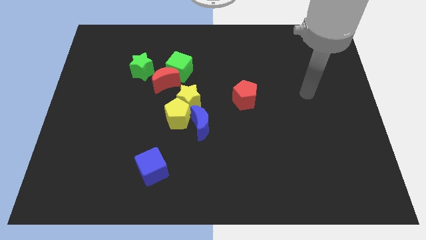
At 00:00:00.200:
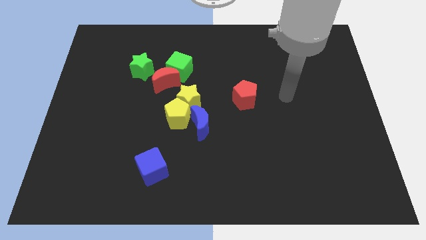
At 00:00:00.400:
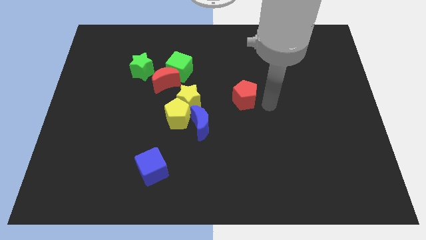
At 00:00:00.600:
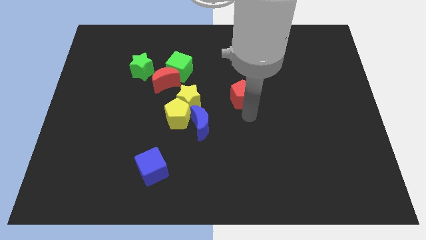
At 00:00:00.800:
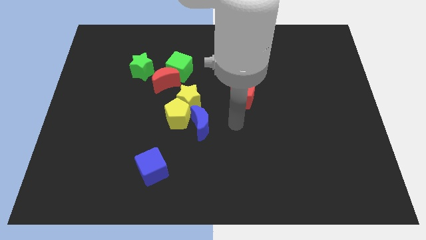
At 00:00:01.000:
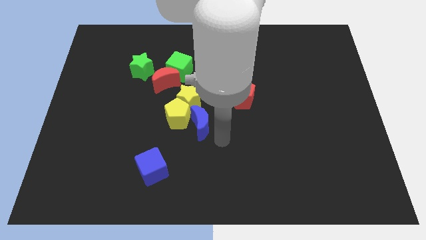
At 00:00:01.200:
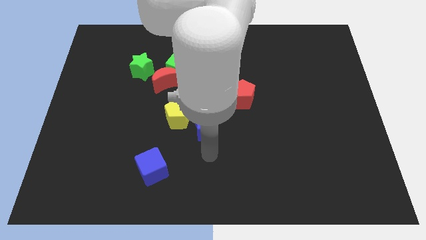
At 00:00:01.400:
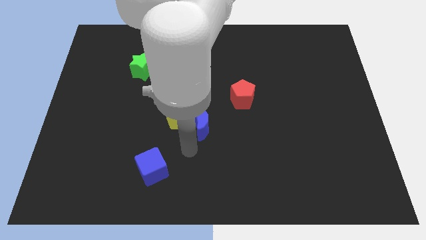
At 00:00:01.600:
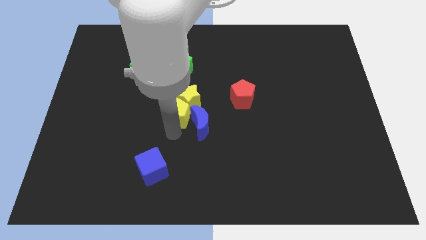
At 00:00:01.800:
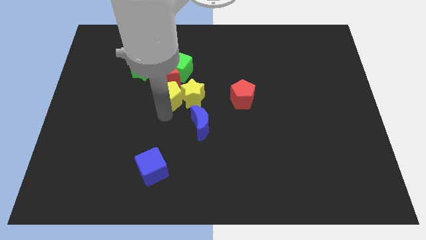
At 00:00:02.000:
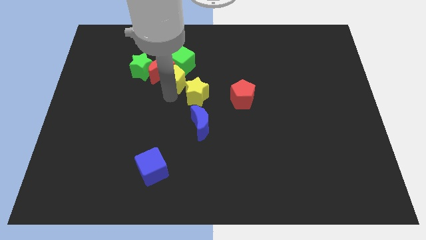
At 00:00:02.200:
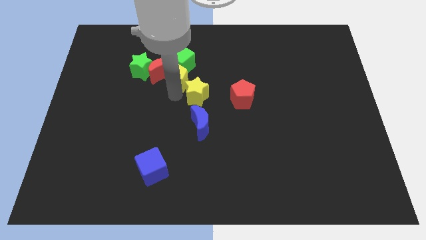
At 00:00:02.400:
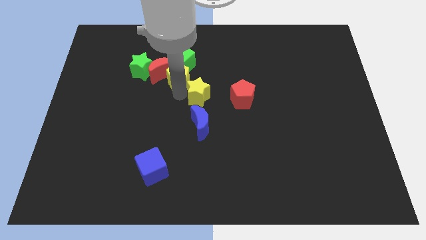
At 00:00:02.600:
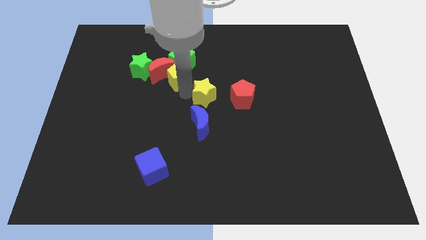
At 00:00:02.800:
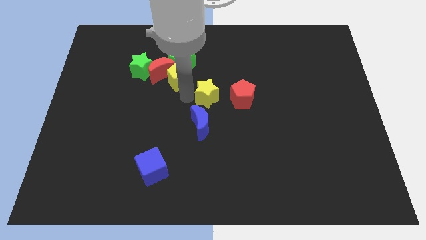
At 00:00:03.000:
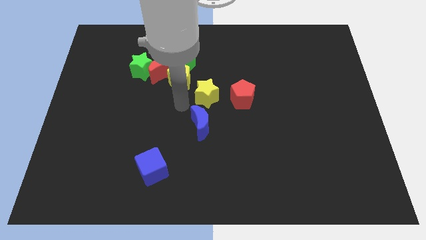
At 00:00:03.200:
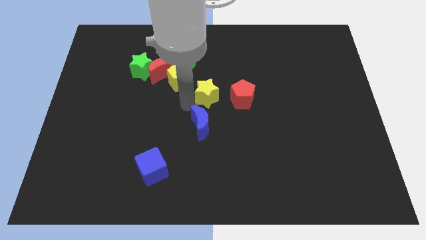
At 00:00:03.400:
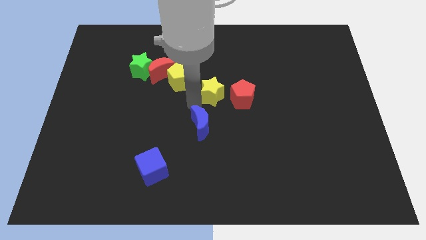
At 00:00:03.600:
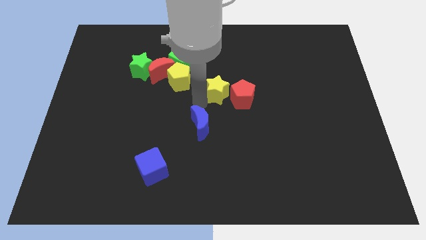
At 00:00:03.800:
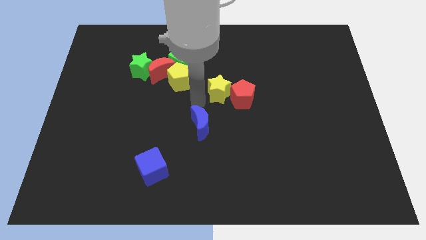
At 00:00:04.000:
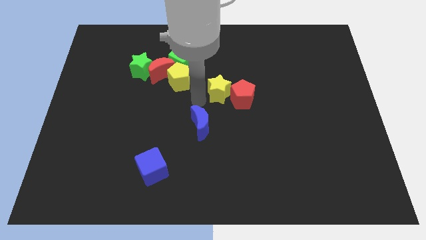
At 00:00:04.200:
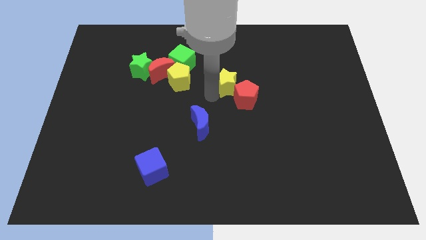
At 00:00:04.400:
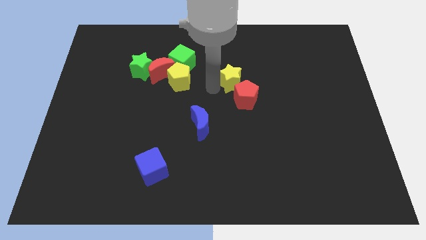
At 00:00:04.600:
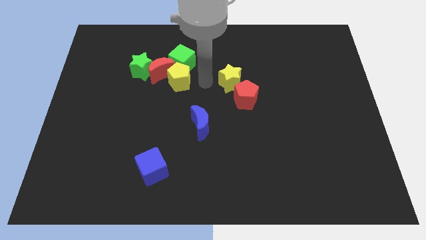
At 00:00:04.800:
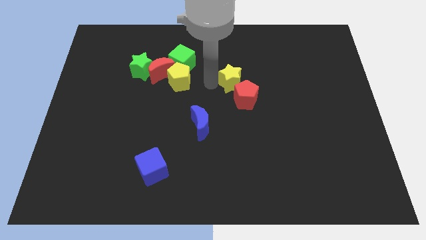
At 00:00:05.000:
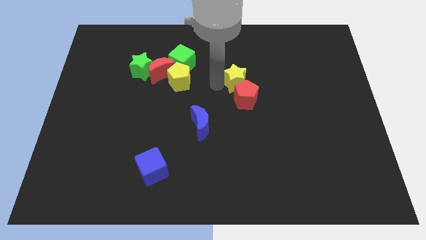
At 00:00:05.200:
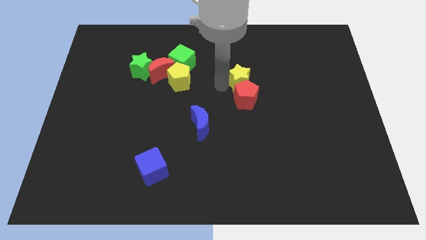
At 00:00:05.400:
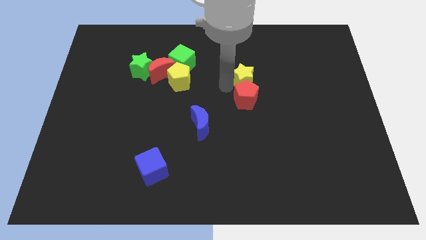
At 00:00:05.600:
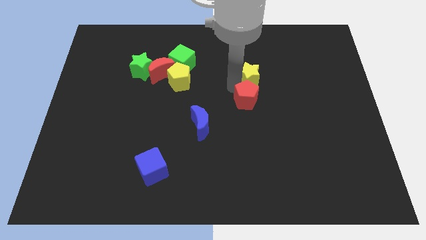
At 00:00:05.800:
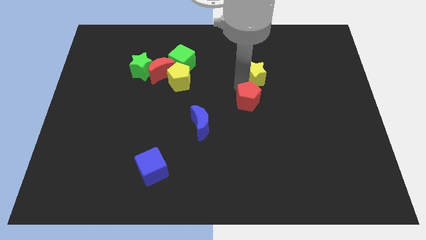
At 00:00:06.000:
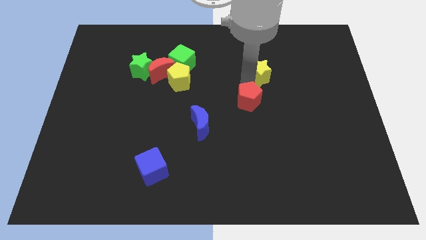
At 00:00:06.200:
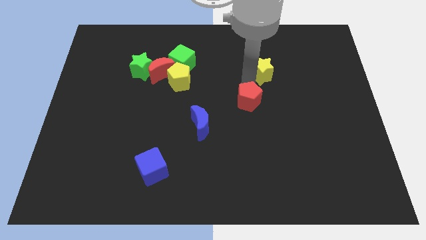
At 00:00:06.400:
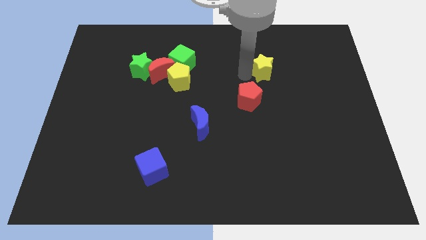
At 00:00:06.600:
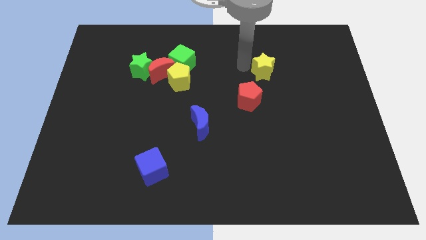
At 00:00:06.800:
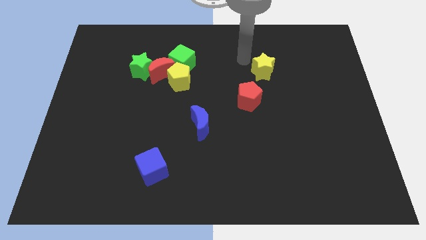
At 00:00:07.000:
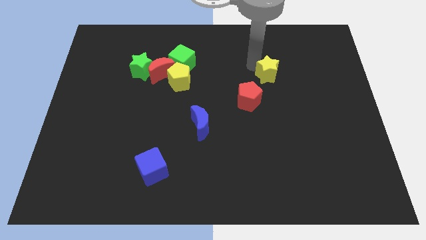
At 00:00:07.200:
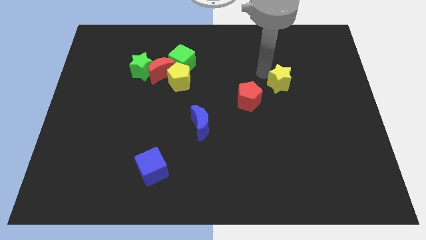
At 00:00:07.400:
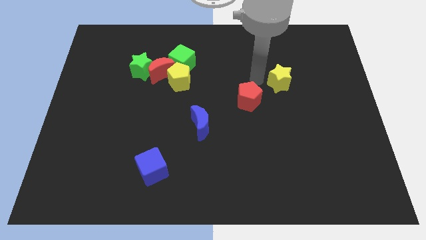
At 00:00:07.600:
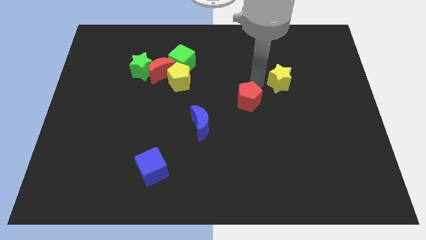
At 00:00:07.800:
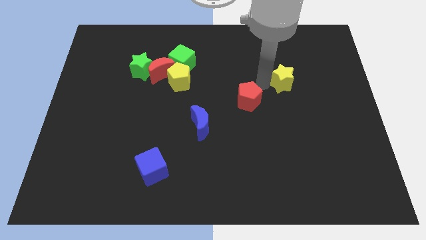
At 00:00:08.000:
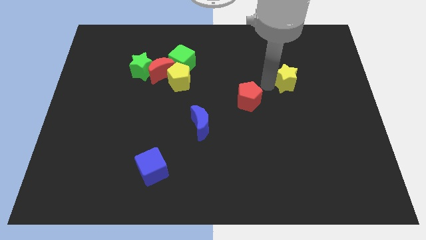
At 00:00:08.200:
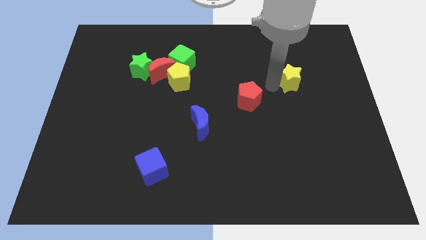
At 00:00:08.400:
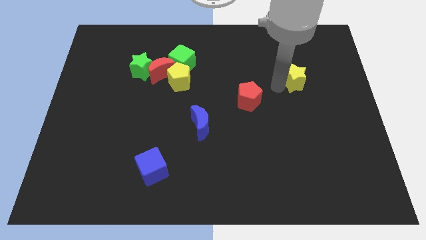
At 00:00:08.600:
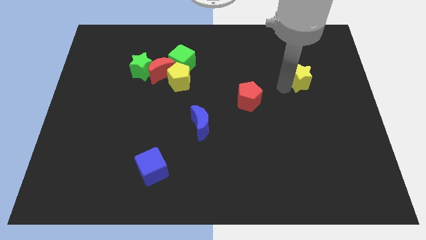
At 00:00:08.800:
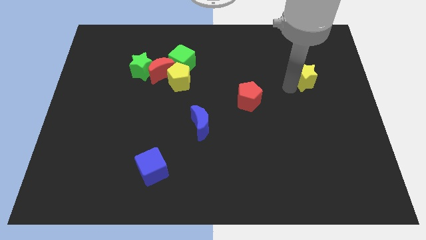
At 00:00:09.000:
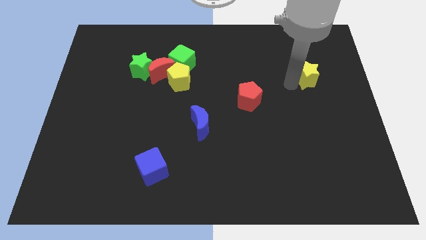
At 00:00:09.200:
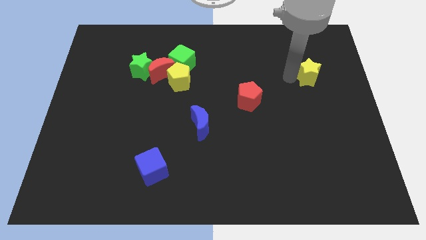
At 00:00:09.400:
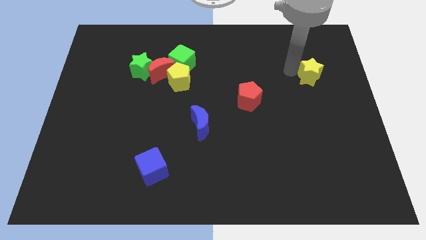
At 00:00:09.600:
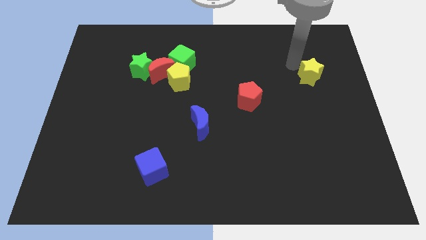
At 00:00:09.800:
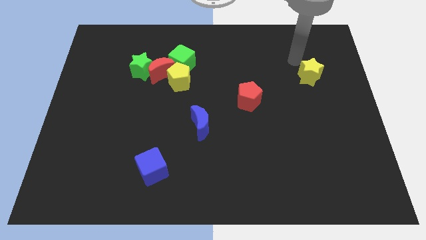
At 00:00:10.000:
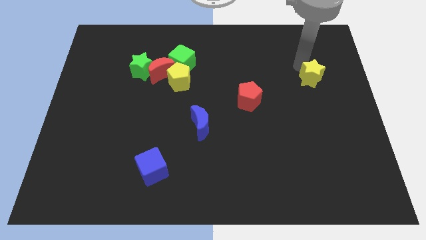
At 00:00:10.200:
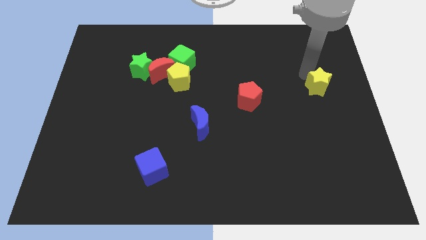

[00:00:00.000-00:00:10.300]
push the yellow star to the center right

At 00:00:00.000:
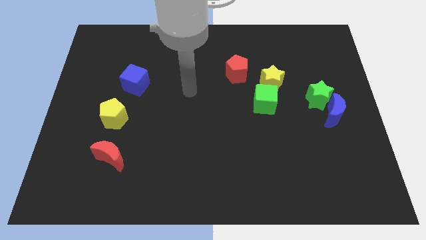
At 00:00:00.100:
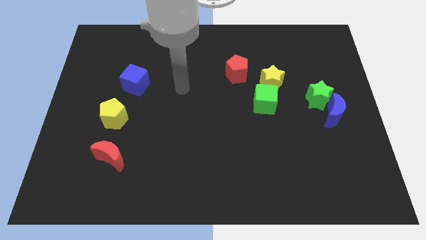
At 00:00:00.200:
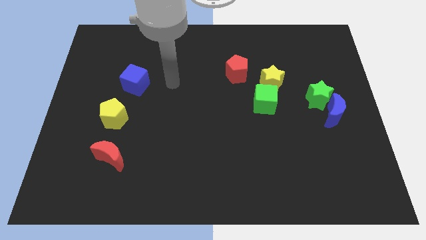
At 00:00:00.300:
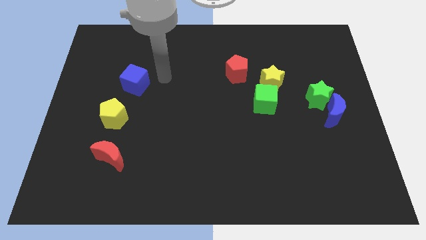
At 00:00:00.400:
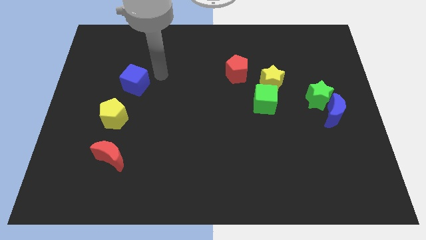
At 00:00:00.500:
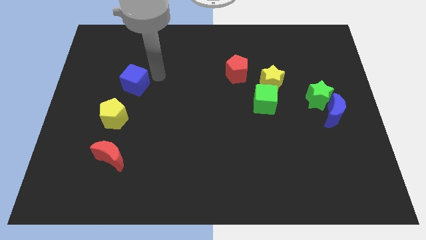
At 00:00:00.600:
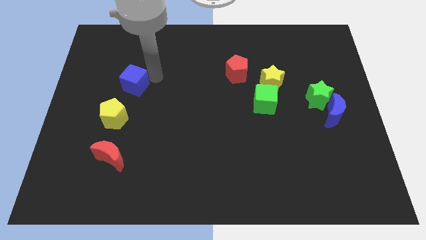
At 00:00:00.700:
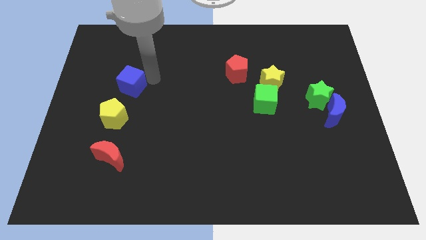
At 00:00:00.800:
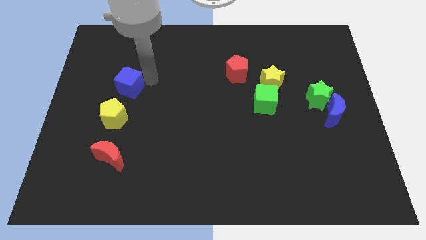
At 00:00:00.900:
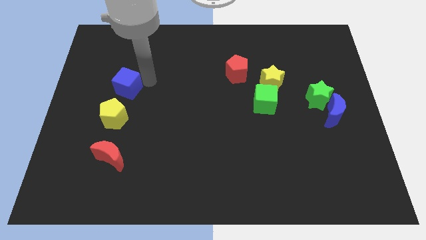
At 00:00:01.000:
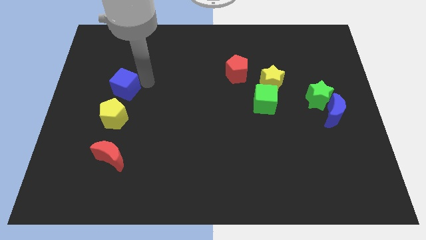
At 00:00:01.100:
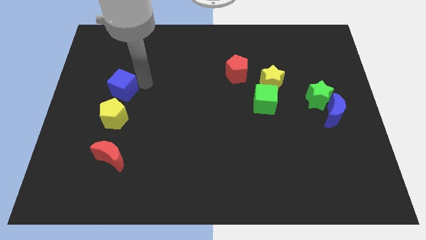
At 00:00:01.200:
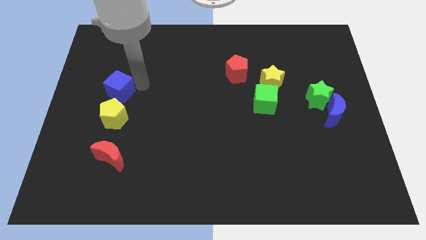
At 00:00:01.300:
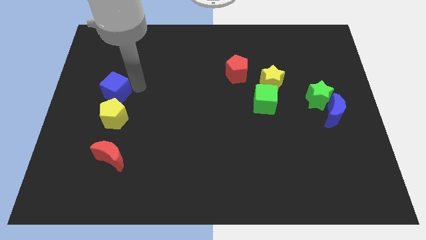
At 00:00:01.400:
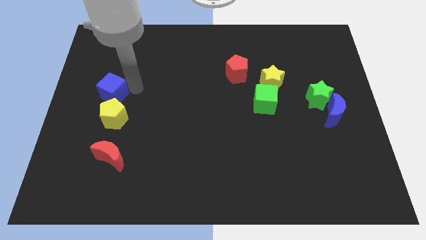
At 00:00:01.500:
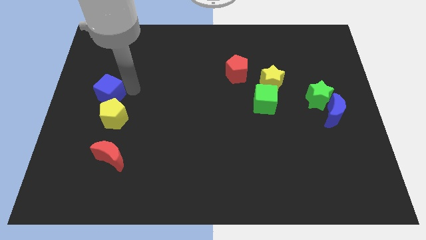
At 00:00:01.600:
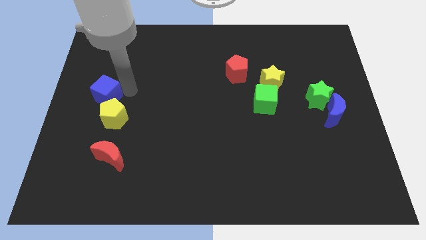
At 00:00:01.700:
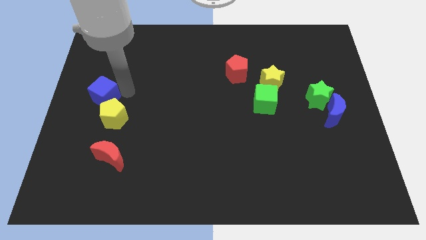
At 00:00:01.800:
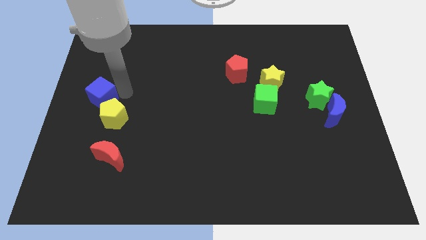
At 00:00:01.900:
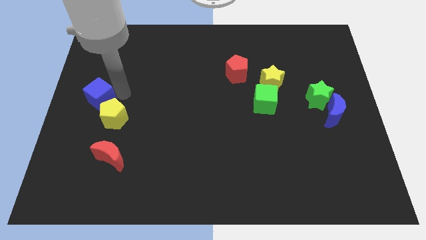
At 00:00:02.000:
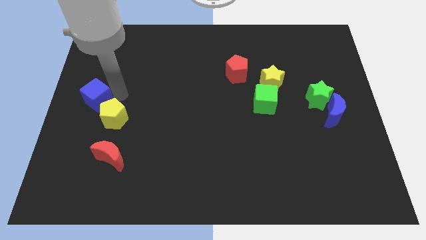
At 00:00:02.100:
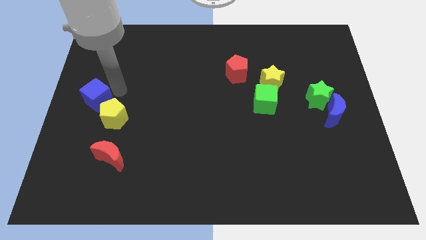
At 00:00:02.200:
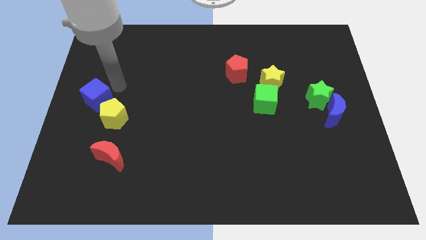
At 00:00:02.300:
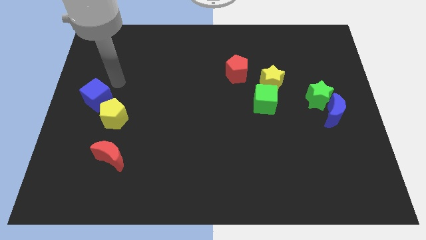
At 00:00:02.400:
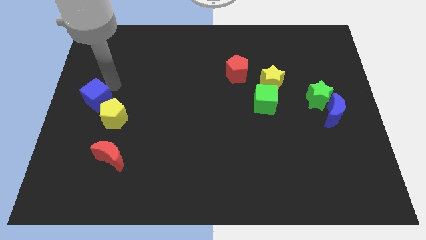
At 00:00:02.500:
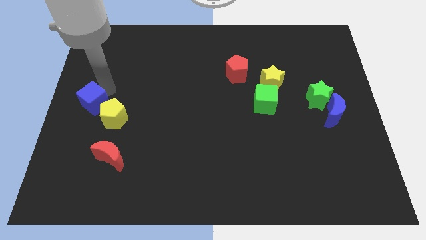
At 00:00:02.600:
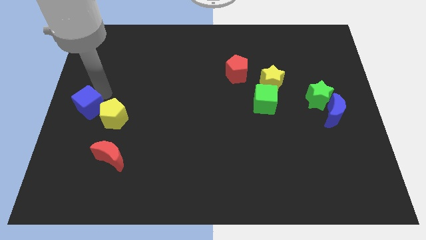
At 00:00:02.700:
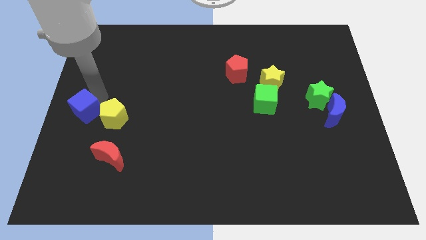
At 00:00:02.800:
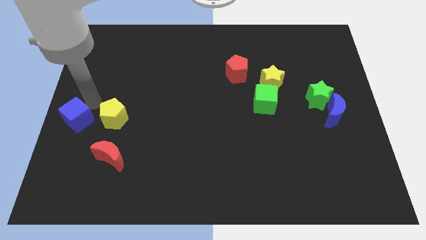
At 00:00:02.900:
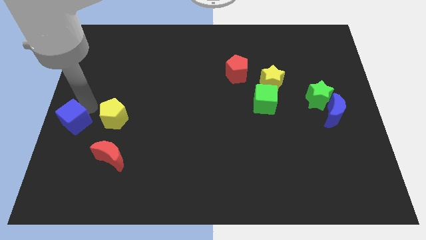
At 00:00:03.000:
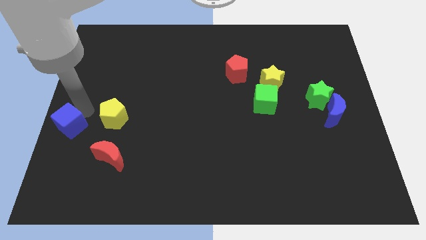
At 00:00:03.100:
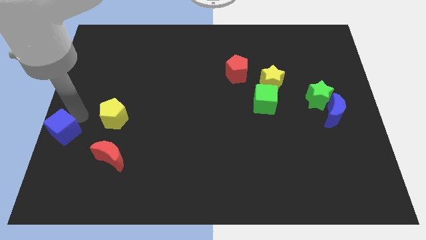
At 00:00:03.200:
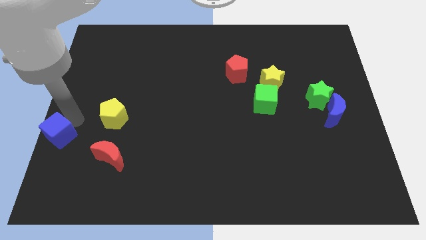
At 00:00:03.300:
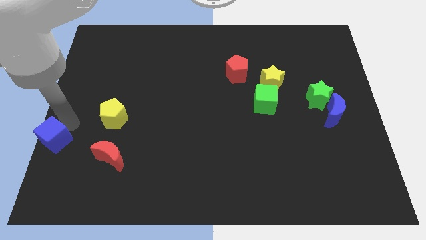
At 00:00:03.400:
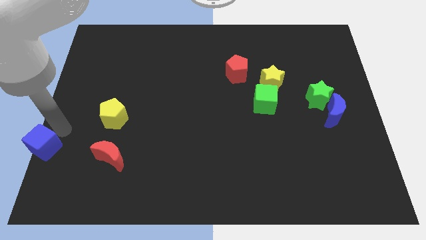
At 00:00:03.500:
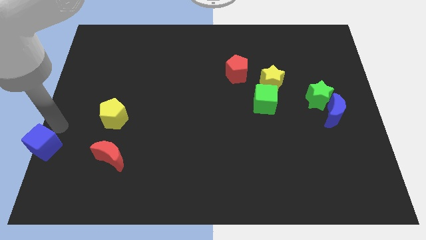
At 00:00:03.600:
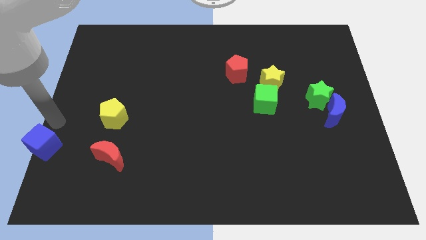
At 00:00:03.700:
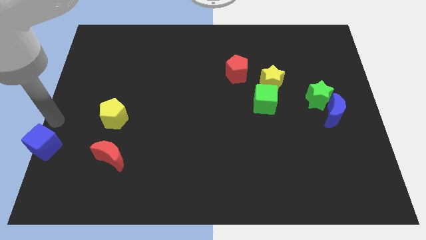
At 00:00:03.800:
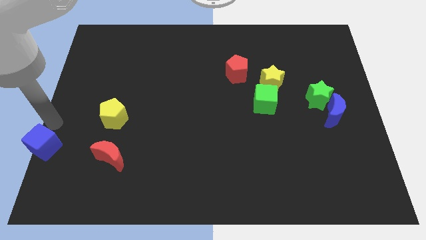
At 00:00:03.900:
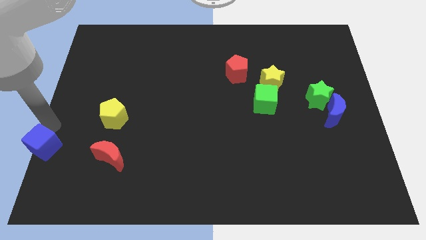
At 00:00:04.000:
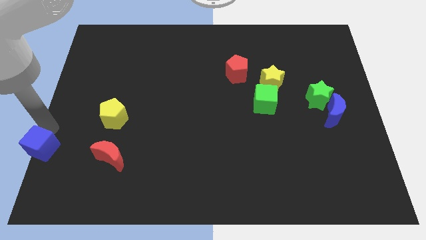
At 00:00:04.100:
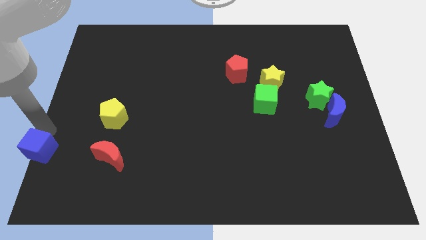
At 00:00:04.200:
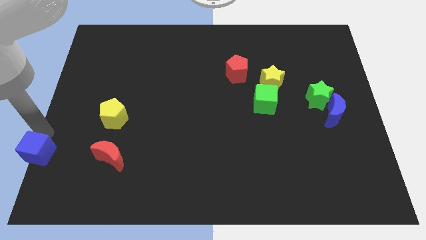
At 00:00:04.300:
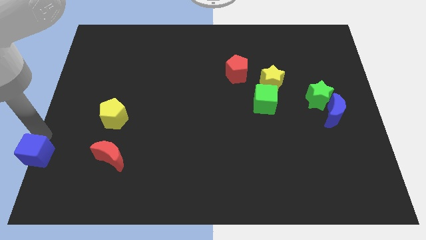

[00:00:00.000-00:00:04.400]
slide the blue cube to the bottom left of the board
